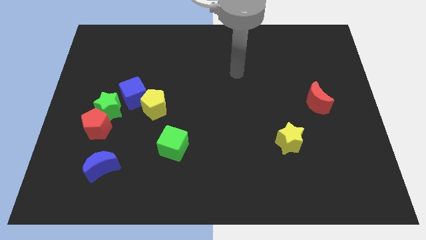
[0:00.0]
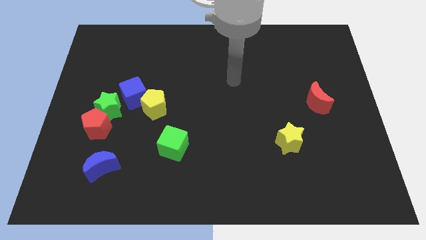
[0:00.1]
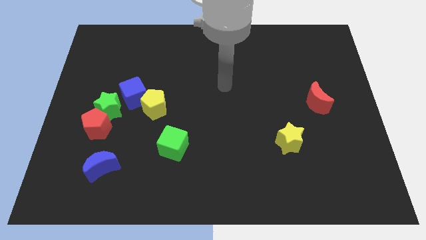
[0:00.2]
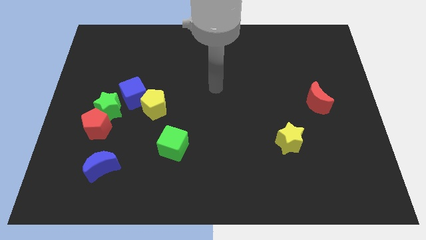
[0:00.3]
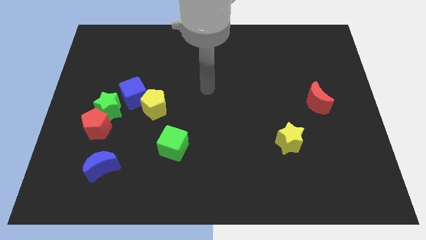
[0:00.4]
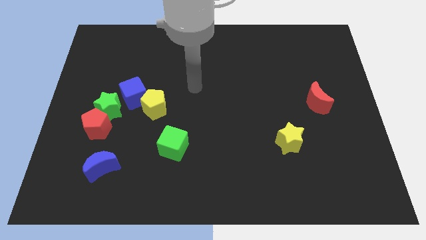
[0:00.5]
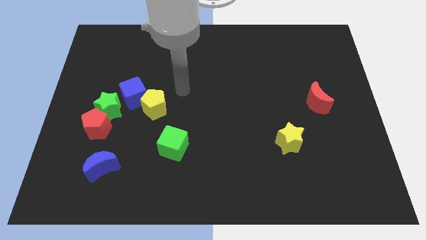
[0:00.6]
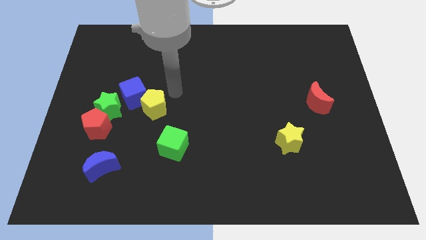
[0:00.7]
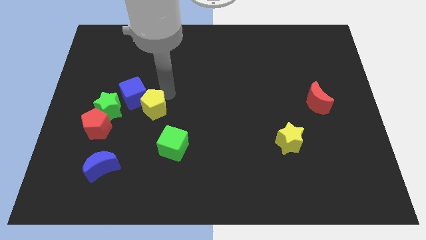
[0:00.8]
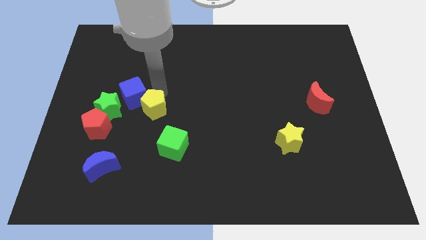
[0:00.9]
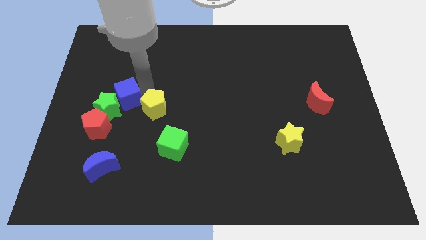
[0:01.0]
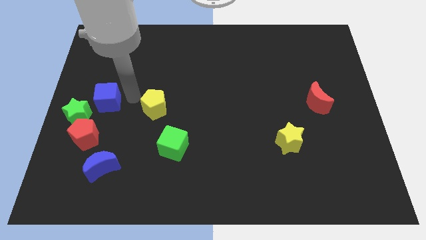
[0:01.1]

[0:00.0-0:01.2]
pull the yellow pentagon apart from the blue cube

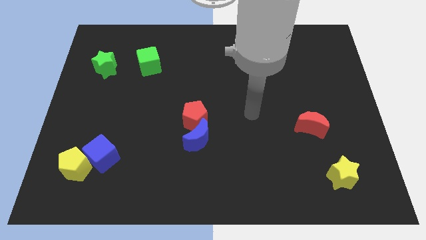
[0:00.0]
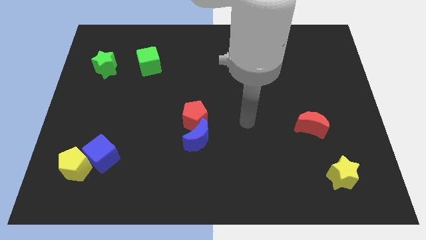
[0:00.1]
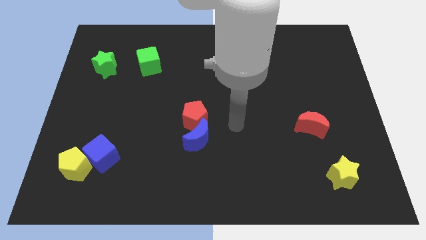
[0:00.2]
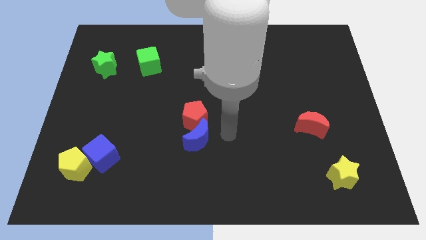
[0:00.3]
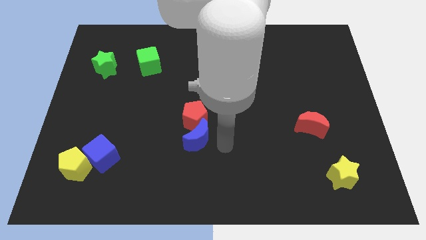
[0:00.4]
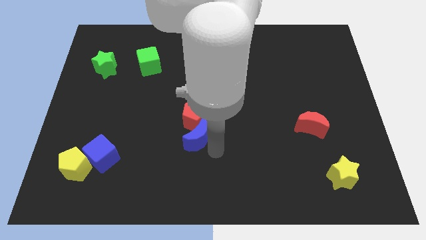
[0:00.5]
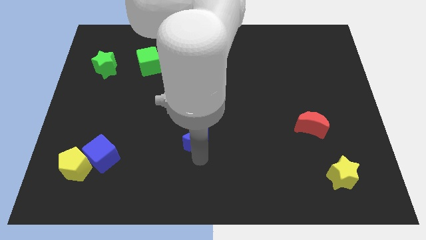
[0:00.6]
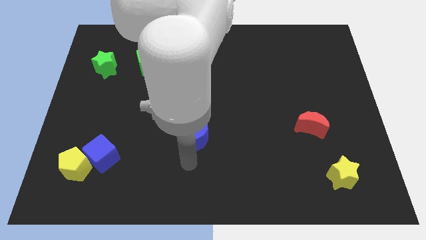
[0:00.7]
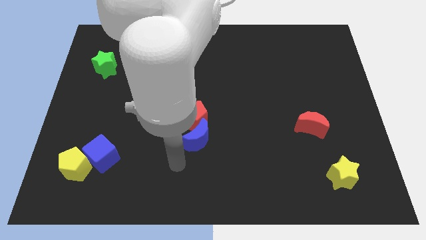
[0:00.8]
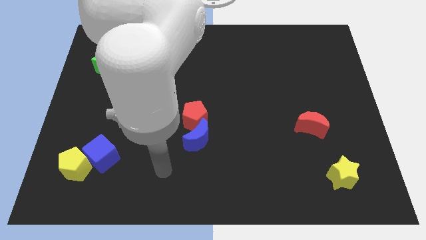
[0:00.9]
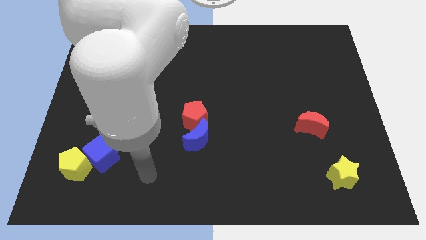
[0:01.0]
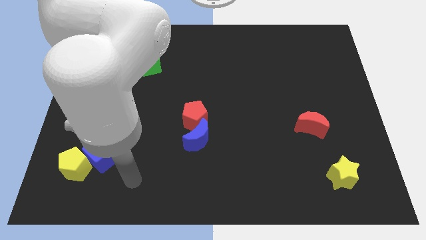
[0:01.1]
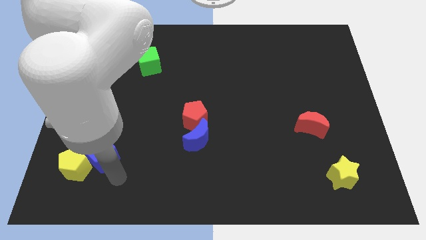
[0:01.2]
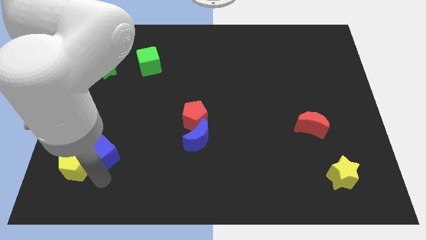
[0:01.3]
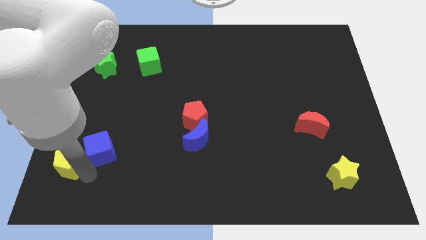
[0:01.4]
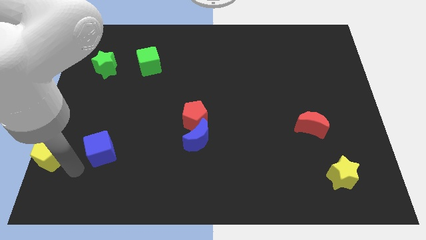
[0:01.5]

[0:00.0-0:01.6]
separate the blue cube from the yellow pentagon

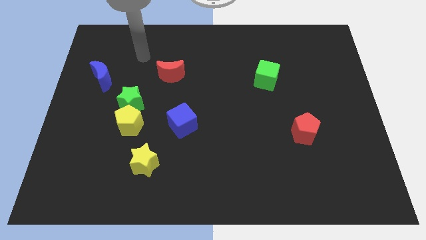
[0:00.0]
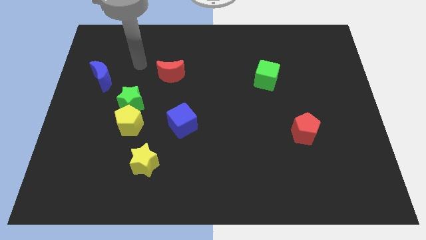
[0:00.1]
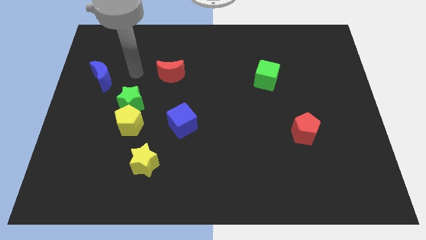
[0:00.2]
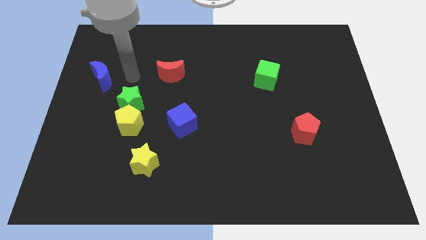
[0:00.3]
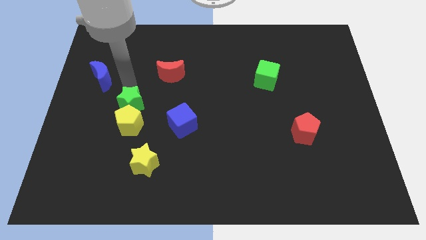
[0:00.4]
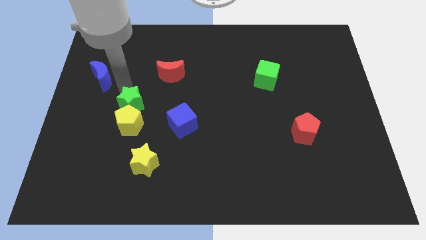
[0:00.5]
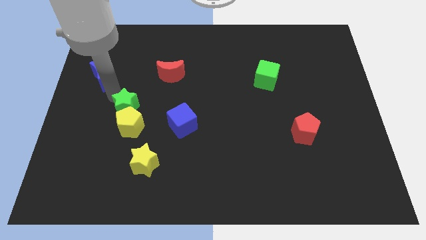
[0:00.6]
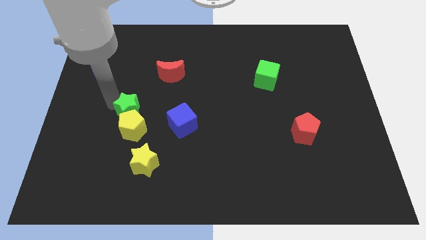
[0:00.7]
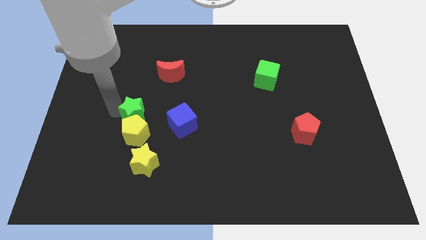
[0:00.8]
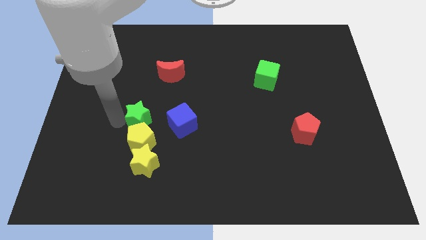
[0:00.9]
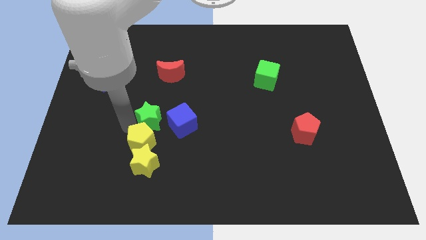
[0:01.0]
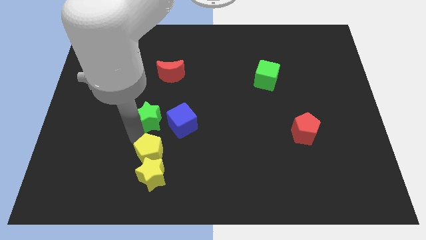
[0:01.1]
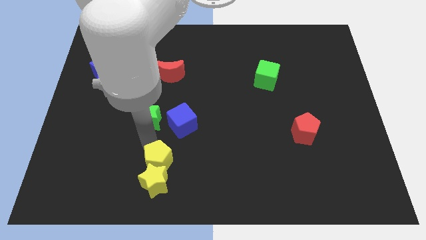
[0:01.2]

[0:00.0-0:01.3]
move the green star away from the yellow pentagon

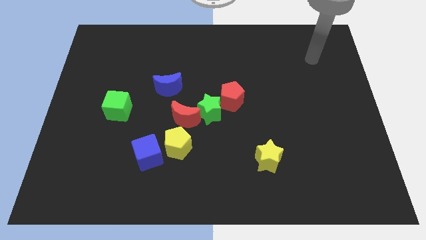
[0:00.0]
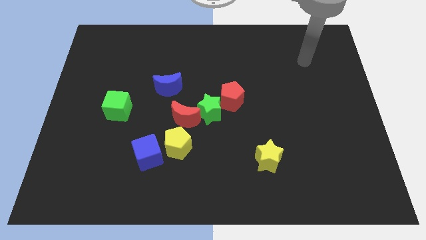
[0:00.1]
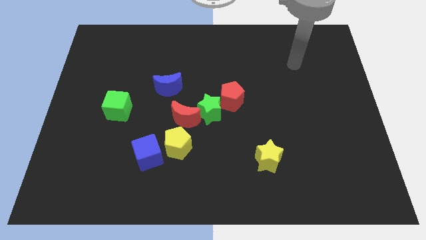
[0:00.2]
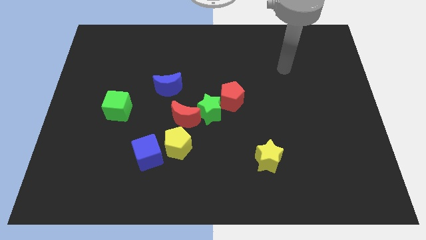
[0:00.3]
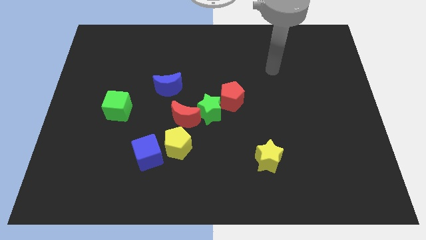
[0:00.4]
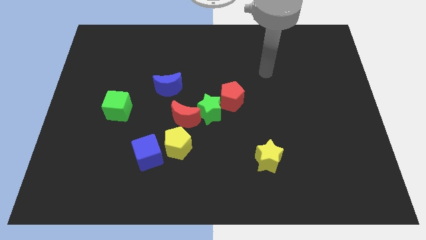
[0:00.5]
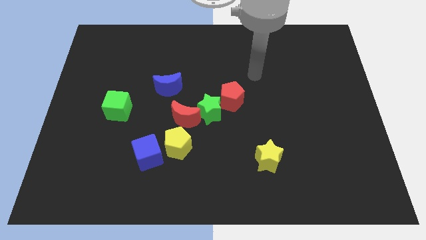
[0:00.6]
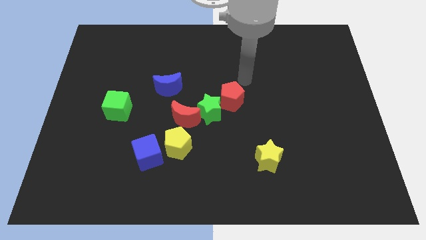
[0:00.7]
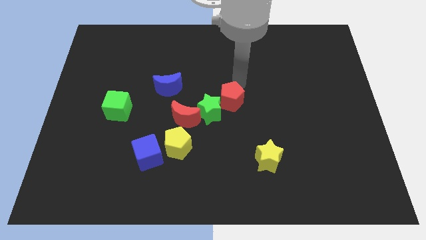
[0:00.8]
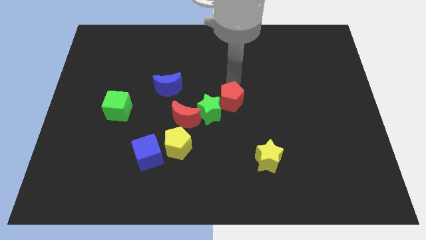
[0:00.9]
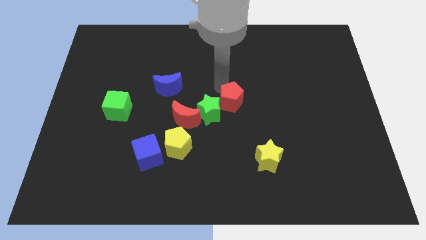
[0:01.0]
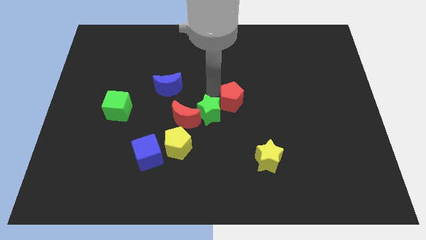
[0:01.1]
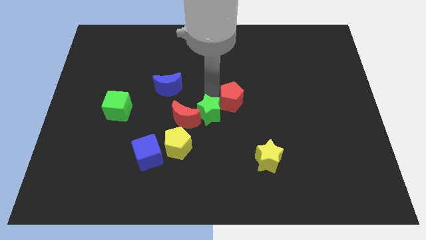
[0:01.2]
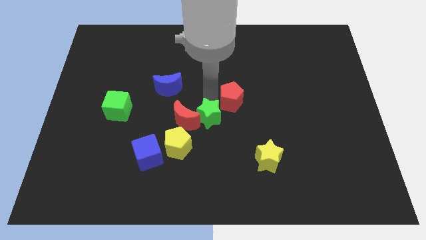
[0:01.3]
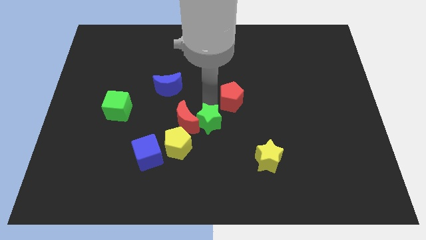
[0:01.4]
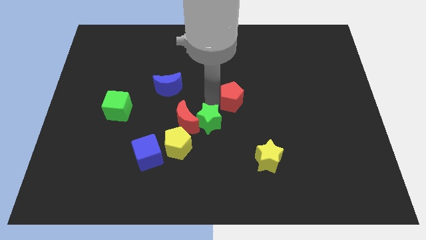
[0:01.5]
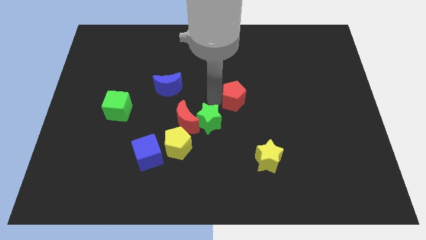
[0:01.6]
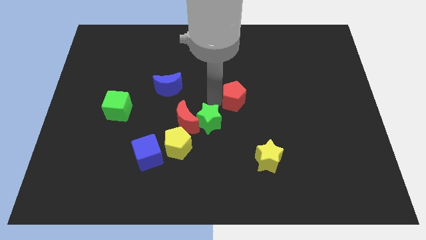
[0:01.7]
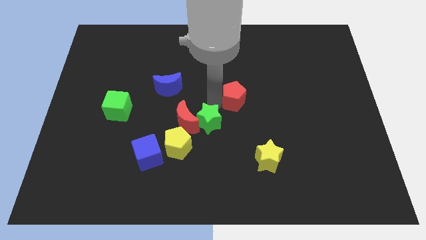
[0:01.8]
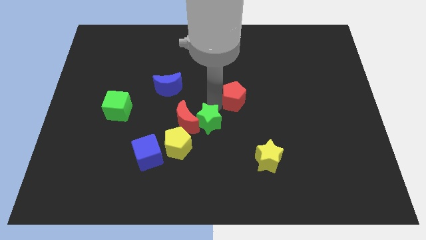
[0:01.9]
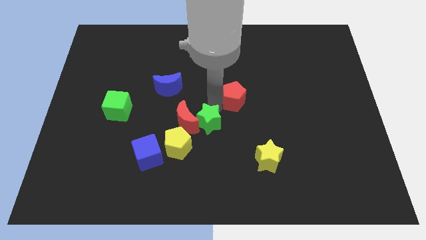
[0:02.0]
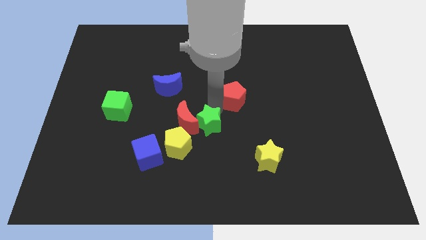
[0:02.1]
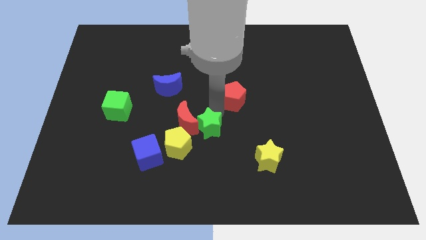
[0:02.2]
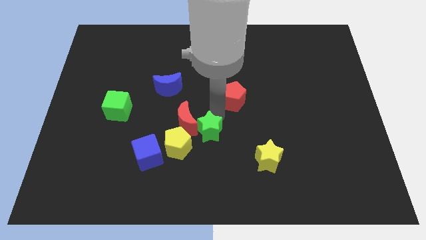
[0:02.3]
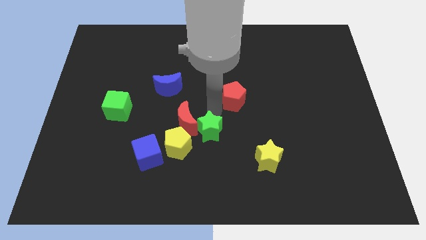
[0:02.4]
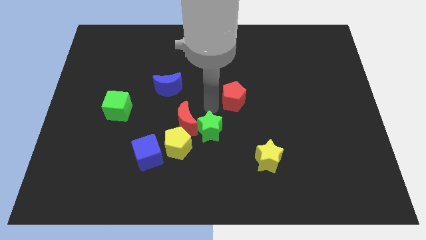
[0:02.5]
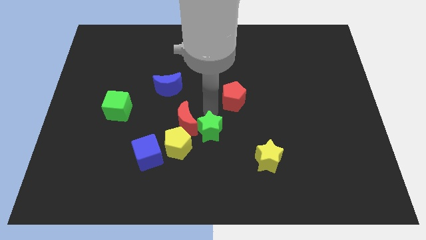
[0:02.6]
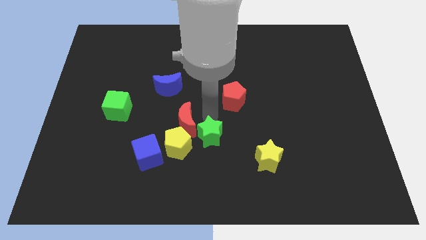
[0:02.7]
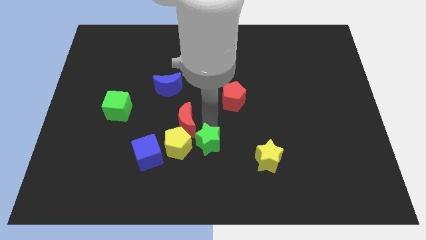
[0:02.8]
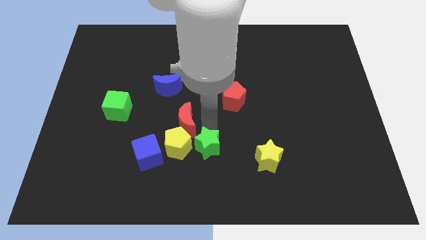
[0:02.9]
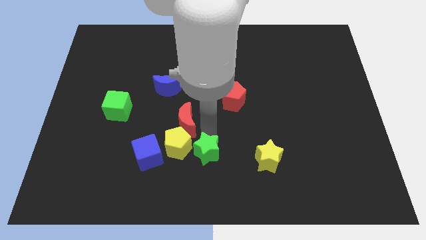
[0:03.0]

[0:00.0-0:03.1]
pull the green star apart from the red moon and red pentagon

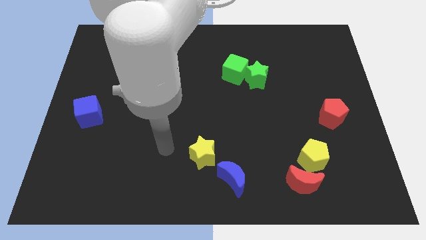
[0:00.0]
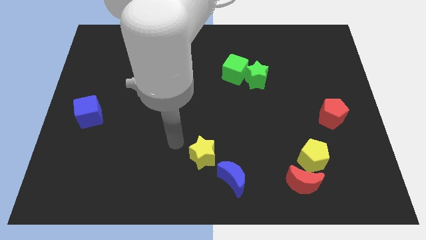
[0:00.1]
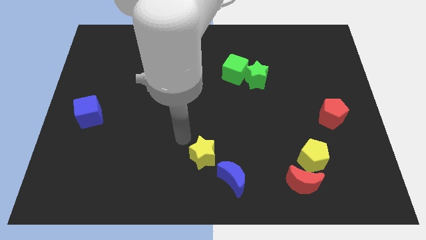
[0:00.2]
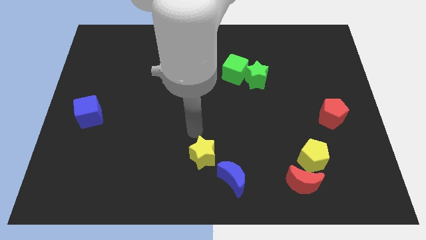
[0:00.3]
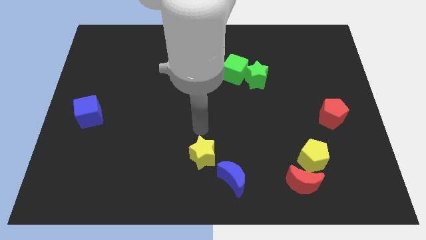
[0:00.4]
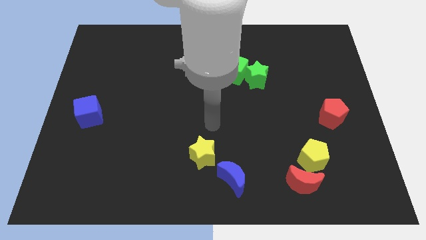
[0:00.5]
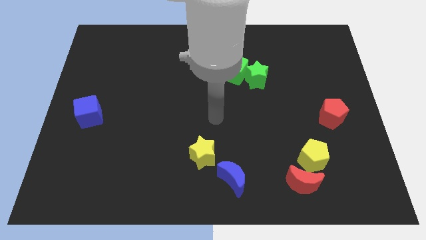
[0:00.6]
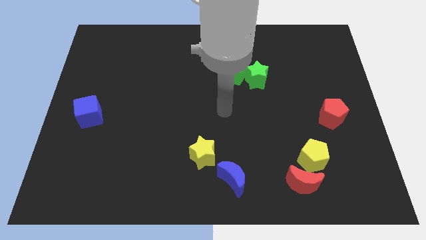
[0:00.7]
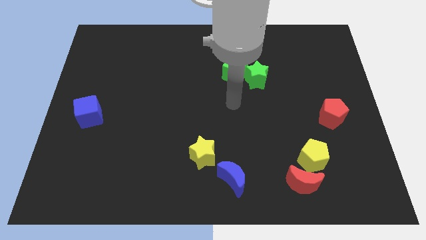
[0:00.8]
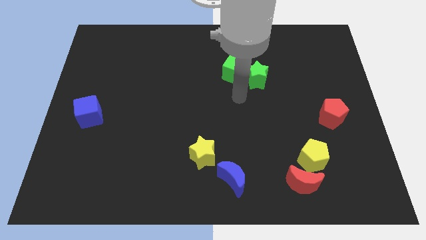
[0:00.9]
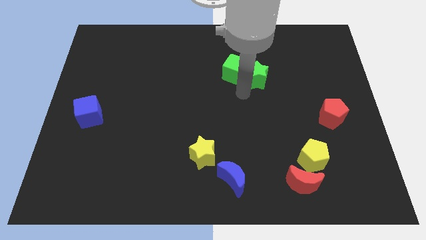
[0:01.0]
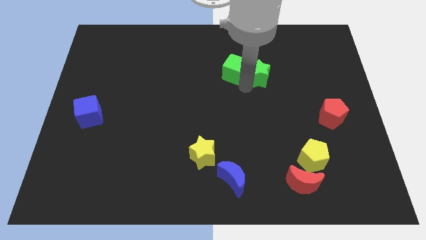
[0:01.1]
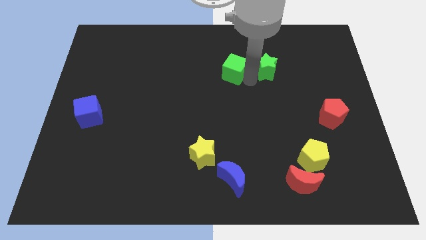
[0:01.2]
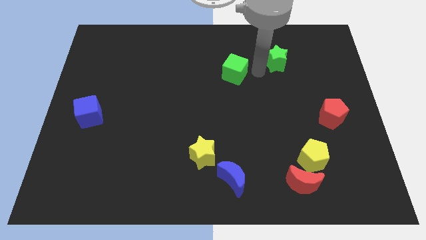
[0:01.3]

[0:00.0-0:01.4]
move the green cube away from the green star

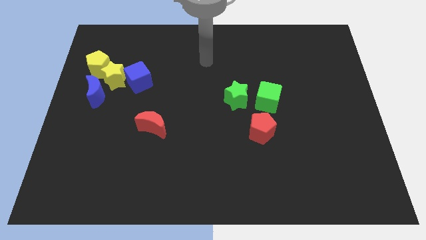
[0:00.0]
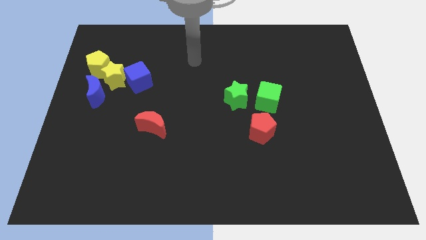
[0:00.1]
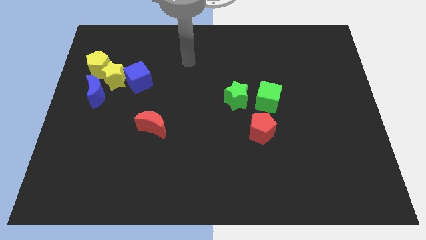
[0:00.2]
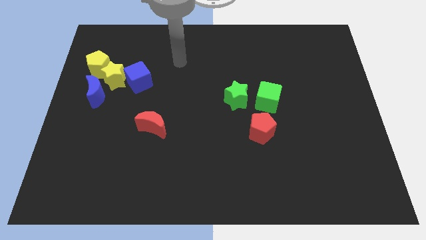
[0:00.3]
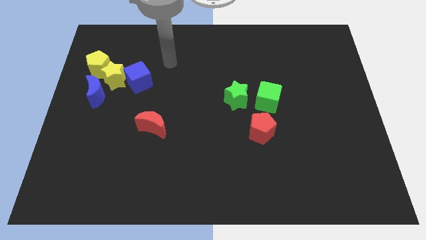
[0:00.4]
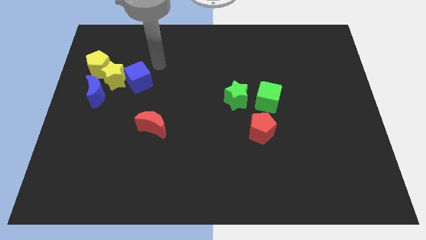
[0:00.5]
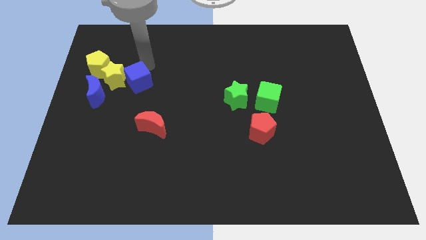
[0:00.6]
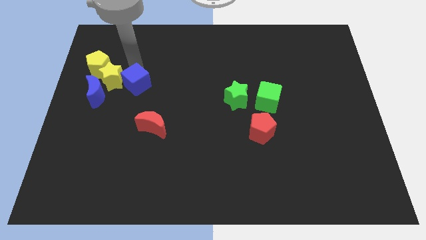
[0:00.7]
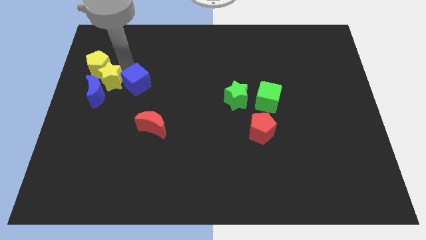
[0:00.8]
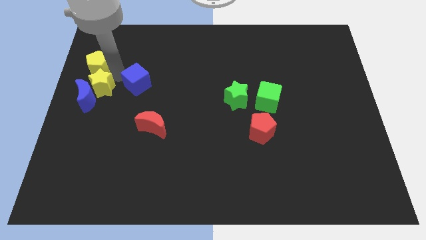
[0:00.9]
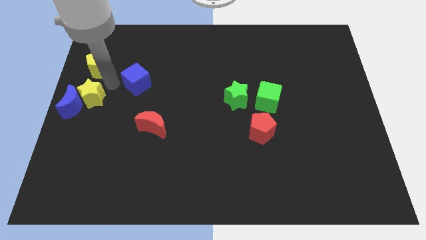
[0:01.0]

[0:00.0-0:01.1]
separate the blue cube from the yellow star
